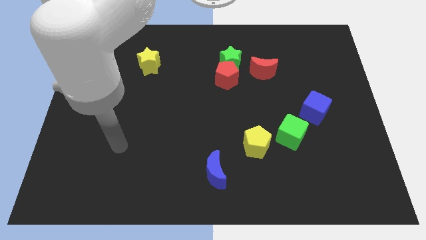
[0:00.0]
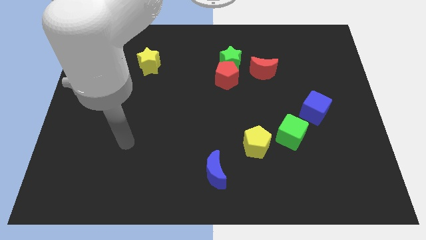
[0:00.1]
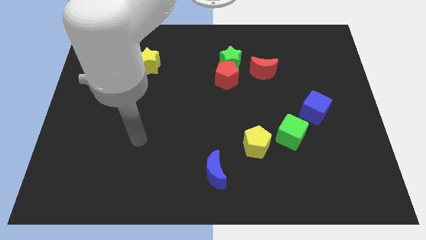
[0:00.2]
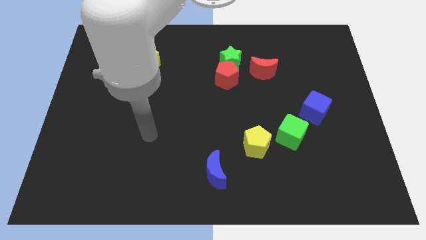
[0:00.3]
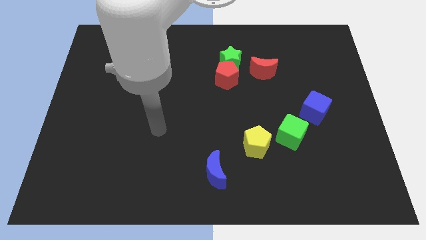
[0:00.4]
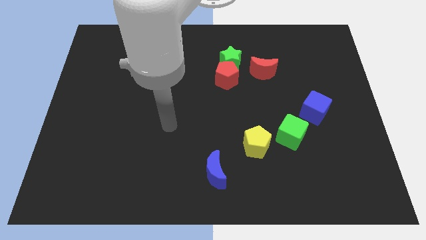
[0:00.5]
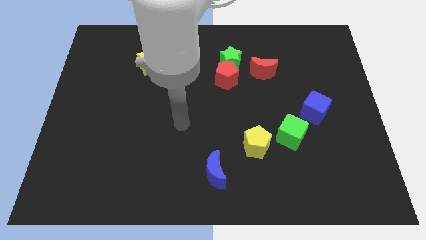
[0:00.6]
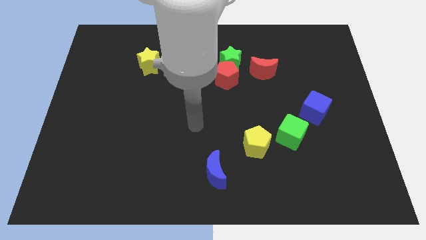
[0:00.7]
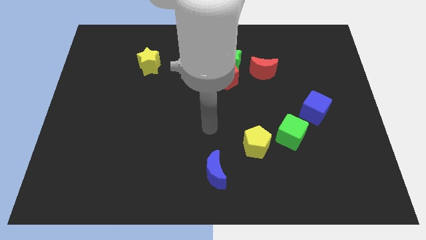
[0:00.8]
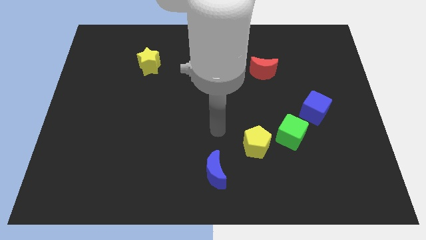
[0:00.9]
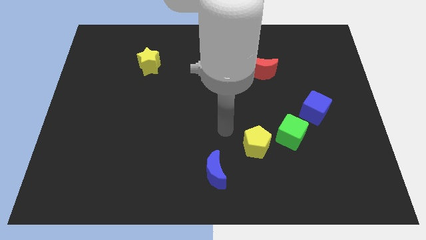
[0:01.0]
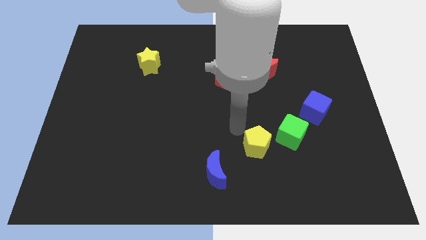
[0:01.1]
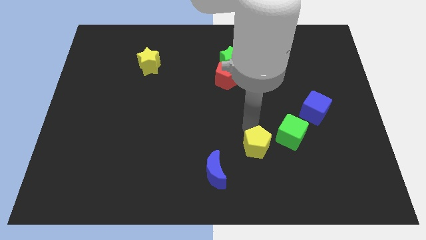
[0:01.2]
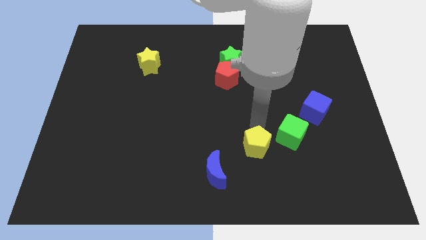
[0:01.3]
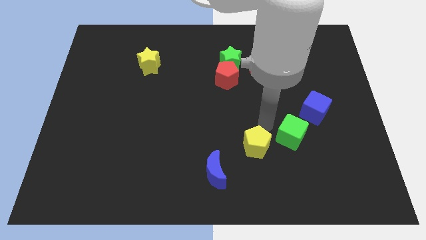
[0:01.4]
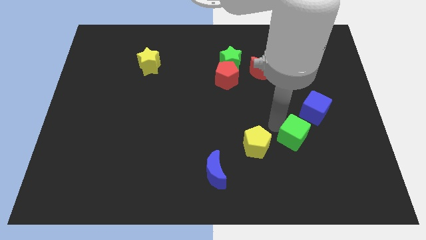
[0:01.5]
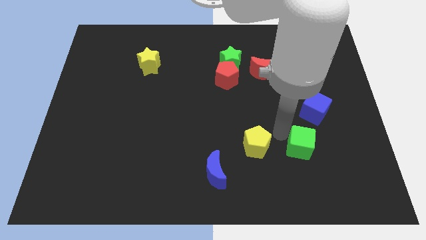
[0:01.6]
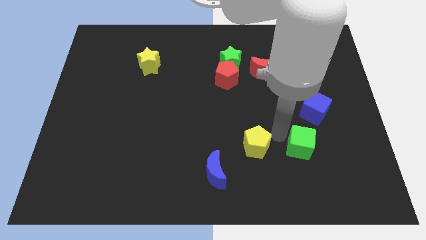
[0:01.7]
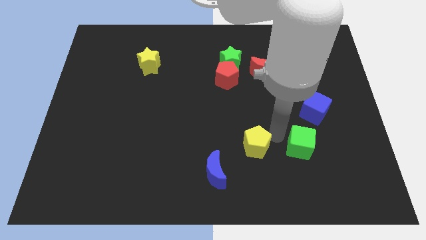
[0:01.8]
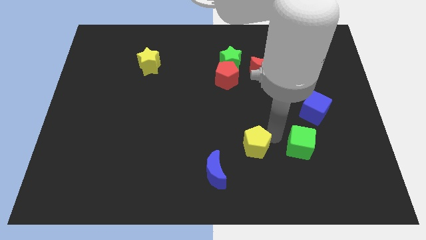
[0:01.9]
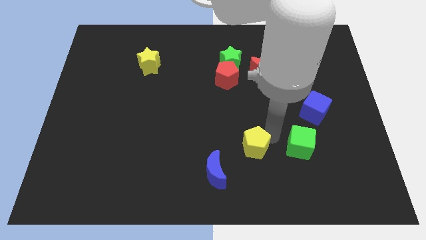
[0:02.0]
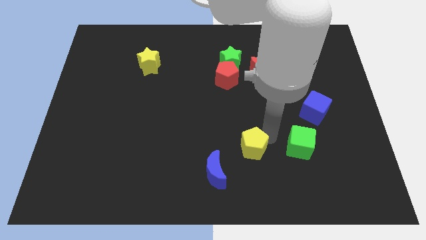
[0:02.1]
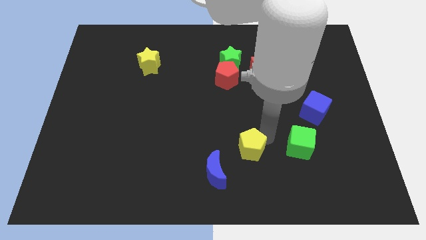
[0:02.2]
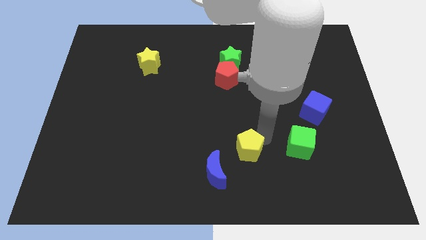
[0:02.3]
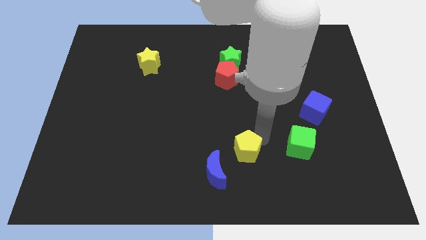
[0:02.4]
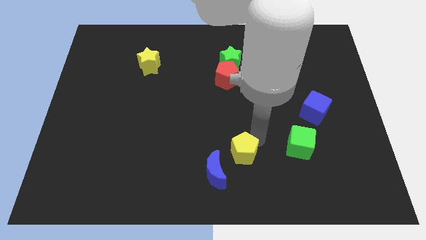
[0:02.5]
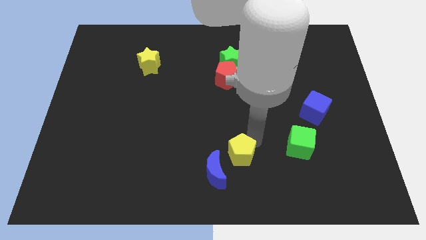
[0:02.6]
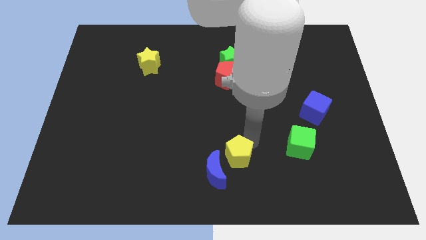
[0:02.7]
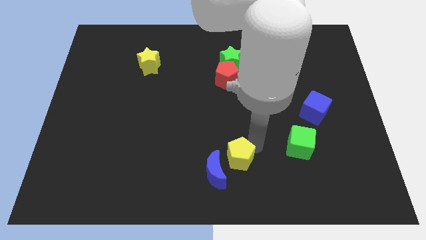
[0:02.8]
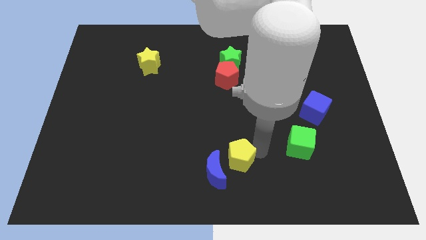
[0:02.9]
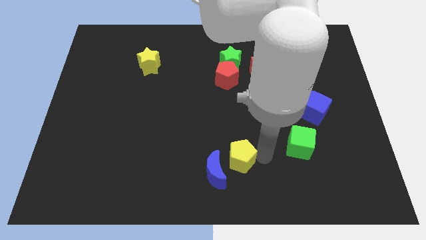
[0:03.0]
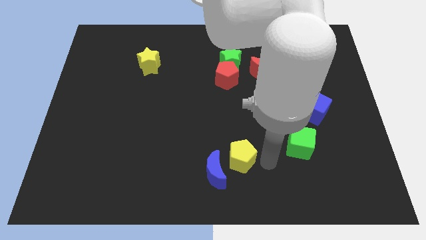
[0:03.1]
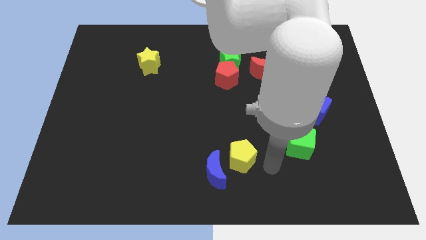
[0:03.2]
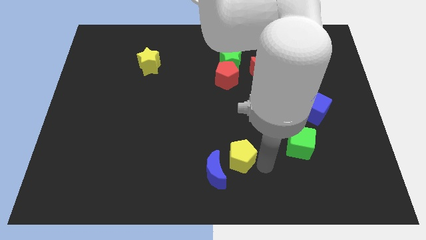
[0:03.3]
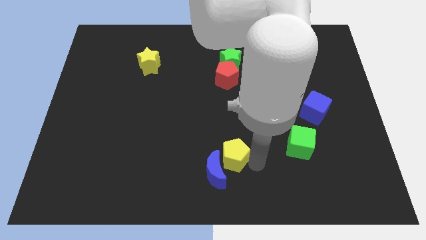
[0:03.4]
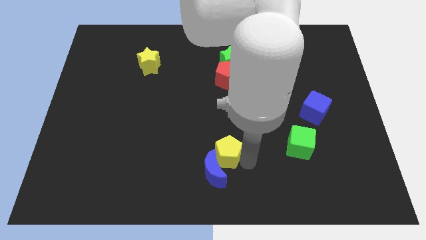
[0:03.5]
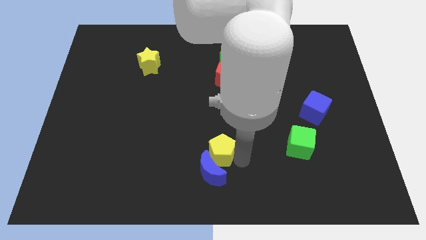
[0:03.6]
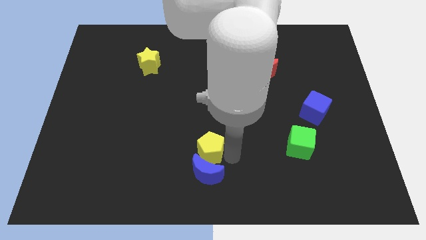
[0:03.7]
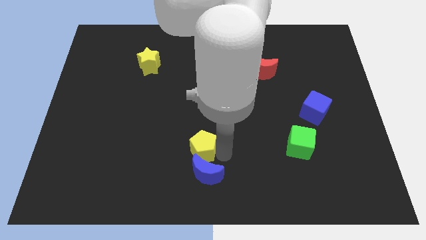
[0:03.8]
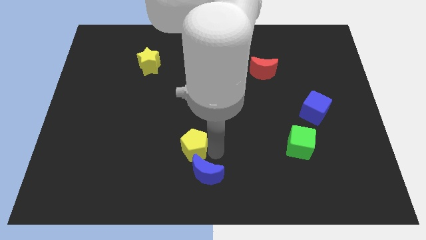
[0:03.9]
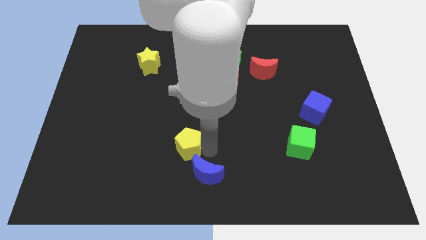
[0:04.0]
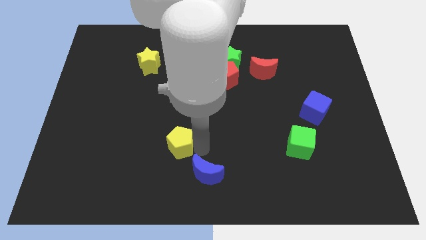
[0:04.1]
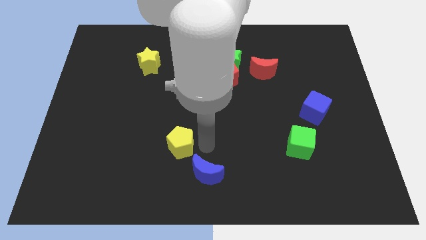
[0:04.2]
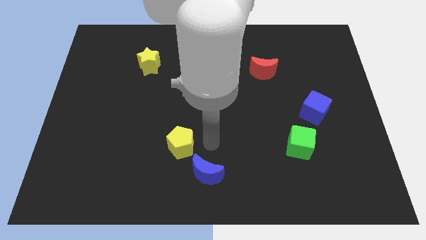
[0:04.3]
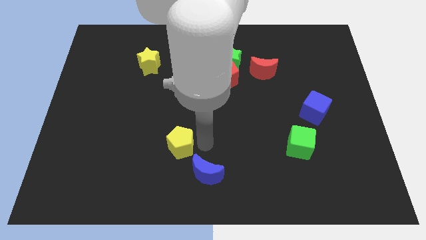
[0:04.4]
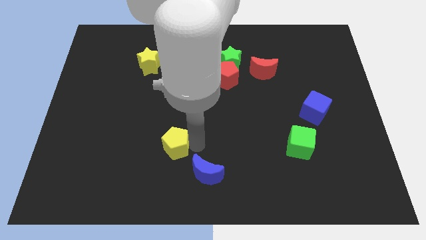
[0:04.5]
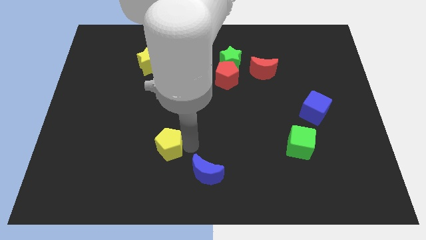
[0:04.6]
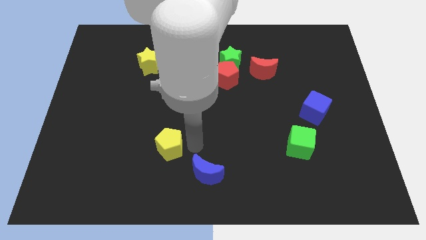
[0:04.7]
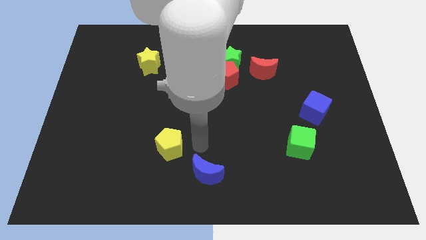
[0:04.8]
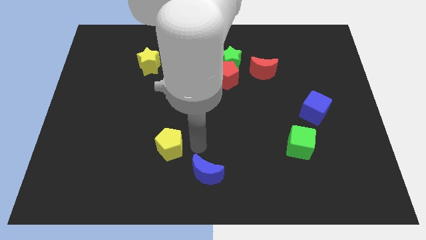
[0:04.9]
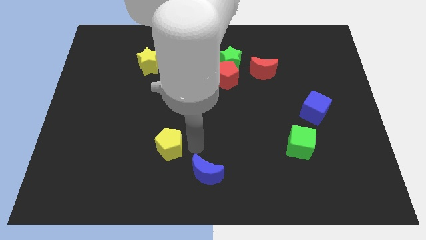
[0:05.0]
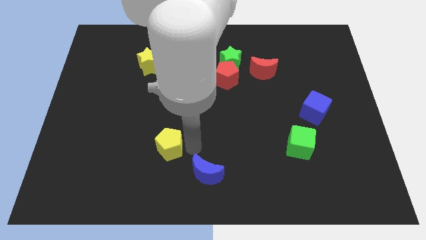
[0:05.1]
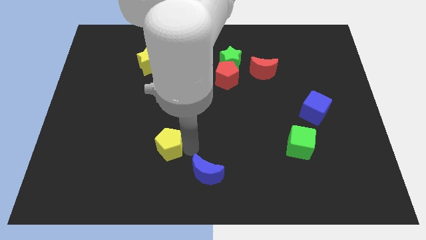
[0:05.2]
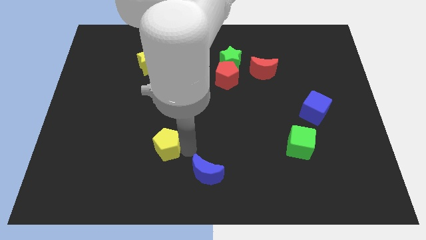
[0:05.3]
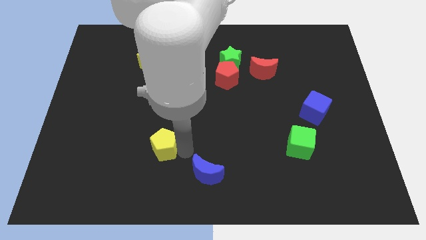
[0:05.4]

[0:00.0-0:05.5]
move the yellow pentagon left

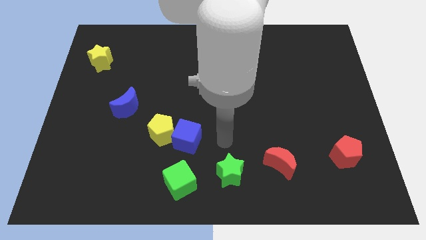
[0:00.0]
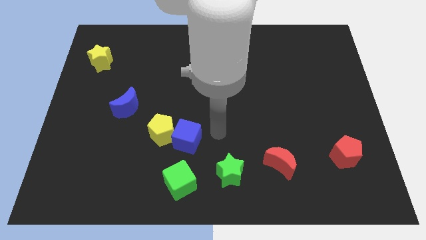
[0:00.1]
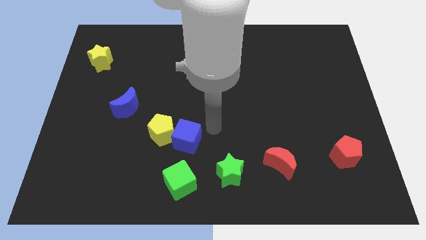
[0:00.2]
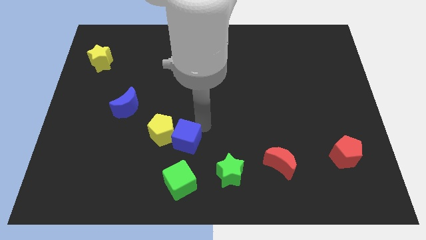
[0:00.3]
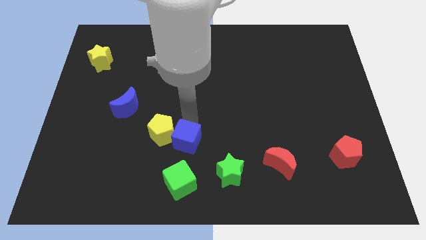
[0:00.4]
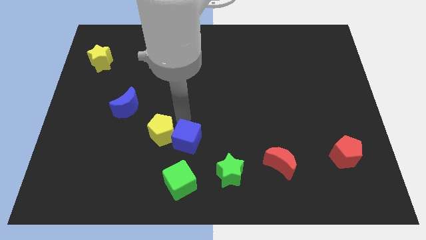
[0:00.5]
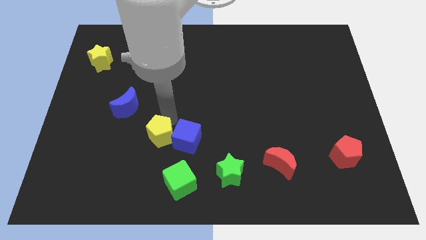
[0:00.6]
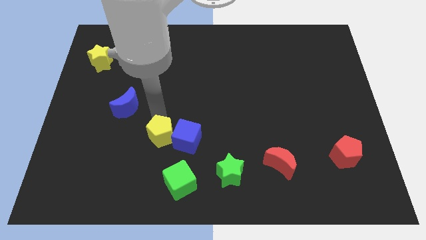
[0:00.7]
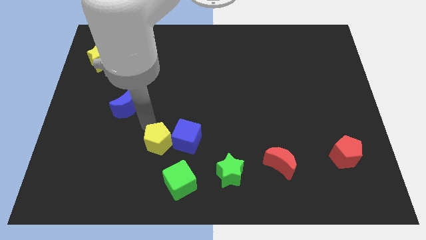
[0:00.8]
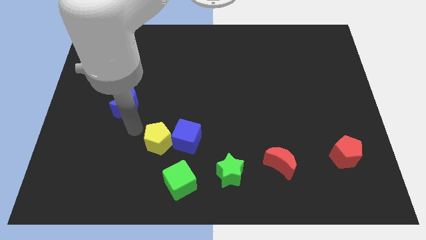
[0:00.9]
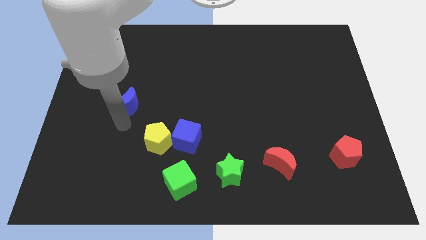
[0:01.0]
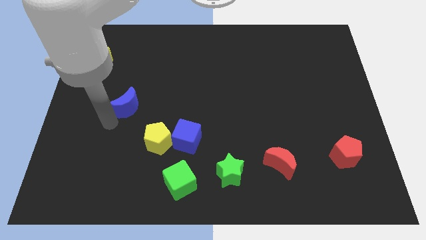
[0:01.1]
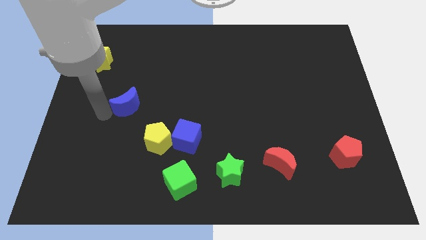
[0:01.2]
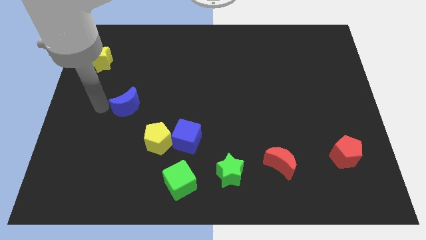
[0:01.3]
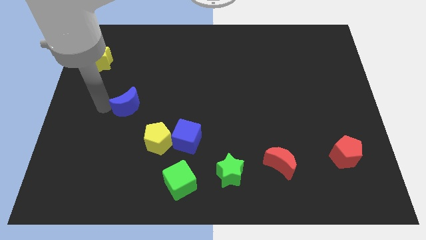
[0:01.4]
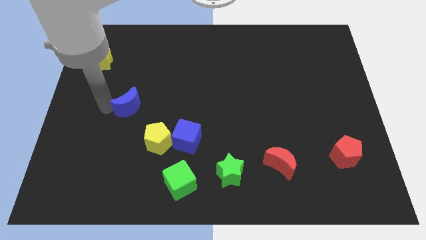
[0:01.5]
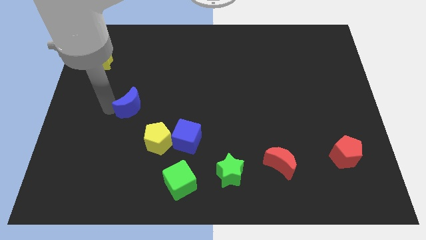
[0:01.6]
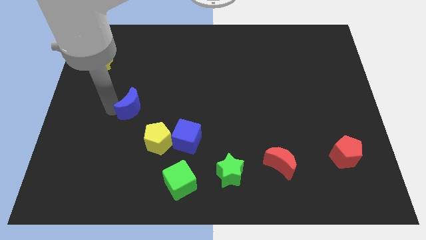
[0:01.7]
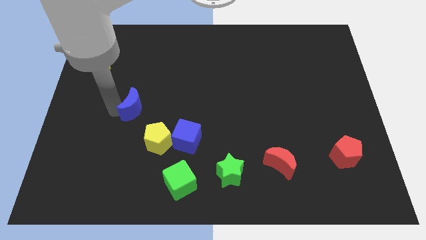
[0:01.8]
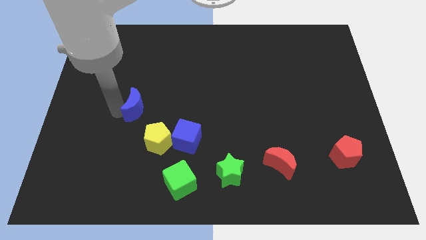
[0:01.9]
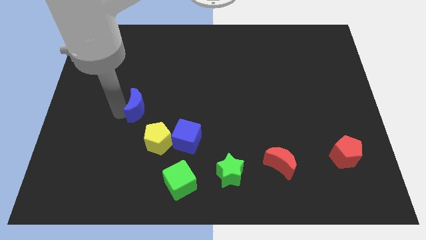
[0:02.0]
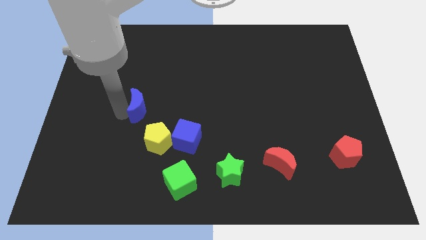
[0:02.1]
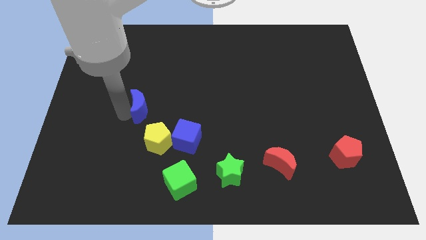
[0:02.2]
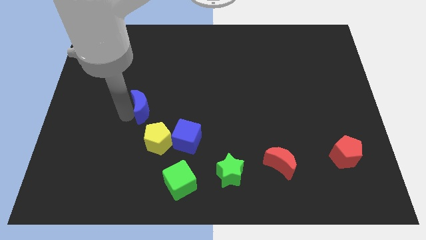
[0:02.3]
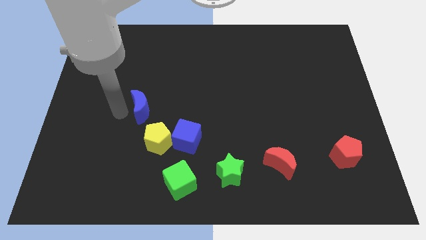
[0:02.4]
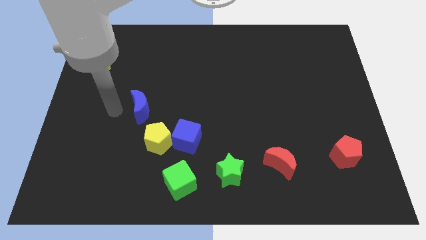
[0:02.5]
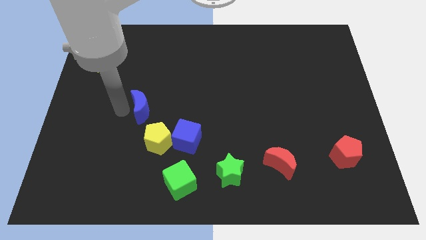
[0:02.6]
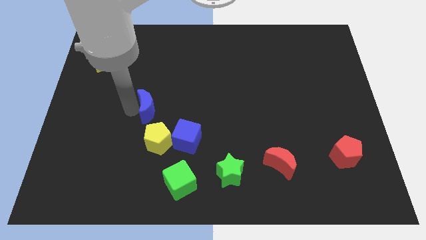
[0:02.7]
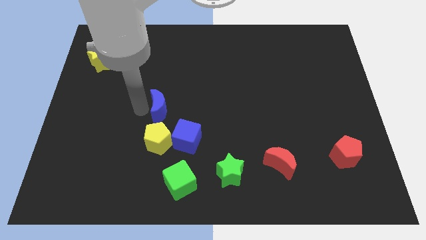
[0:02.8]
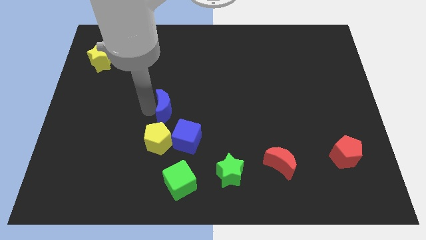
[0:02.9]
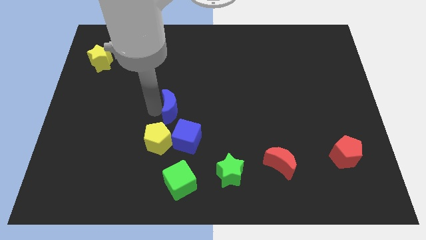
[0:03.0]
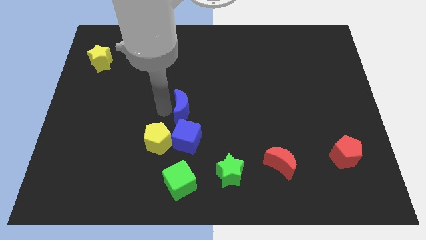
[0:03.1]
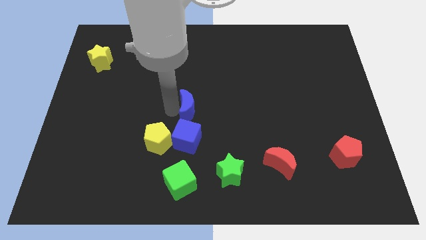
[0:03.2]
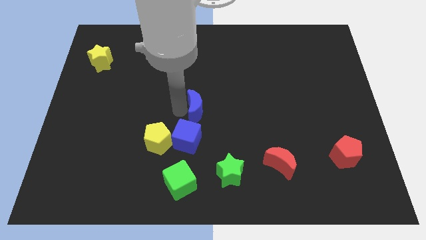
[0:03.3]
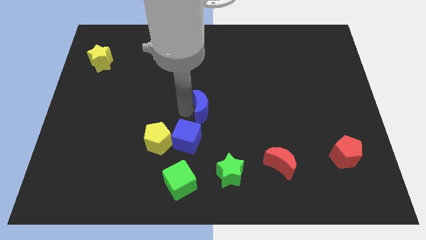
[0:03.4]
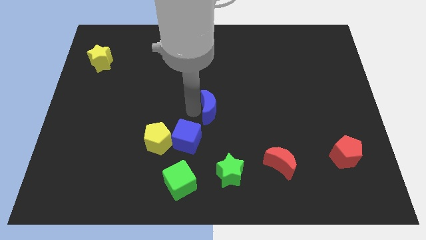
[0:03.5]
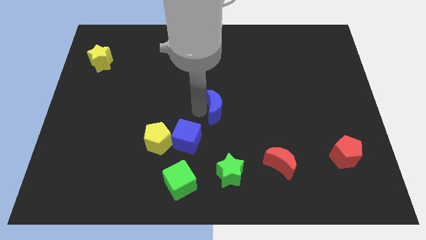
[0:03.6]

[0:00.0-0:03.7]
move the blue moon right
